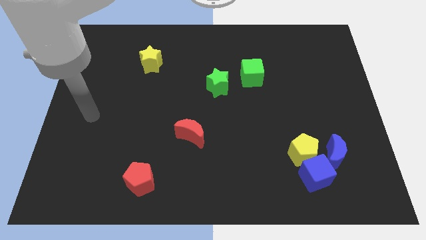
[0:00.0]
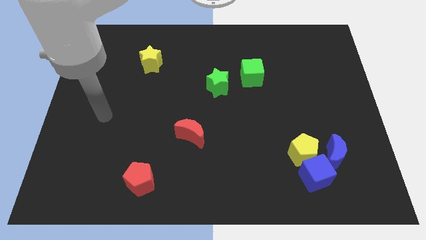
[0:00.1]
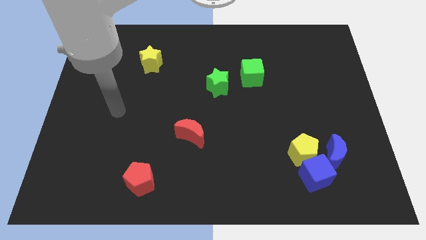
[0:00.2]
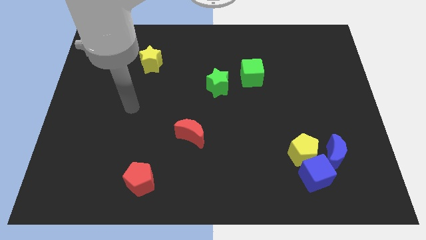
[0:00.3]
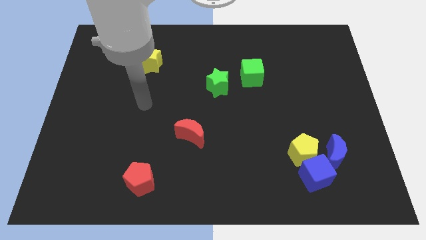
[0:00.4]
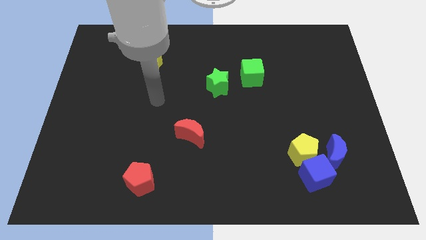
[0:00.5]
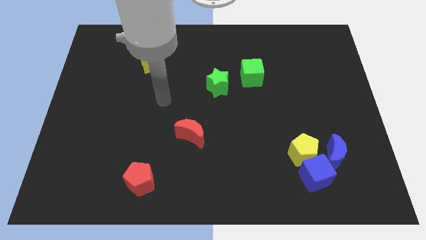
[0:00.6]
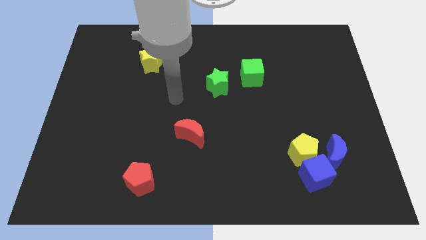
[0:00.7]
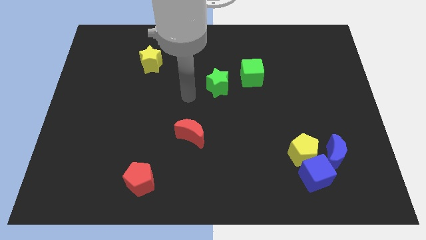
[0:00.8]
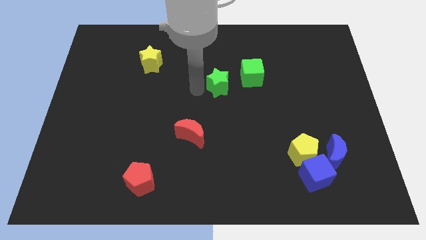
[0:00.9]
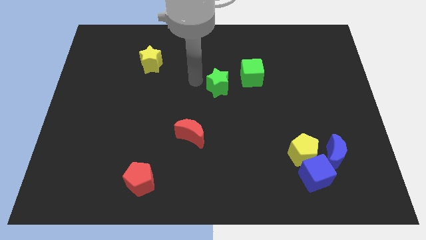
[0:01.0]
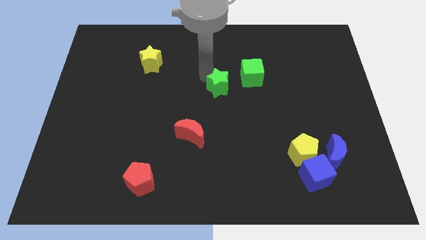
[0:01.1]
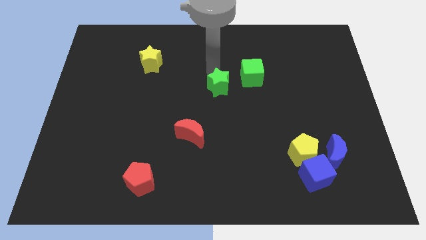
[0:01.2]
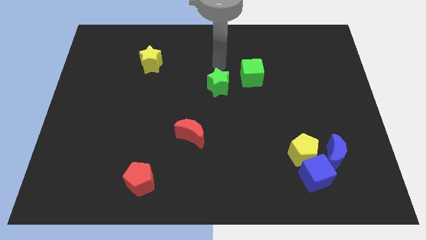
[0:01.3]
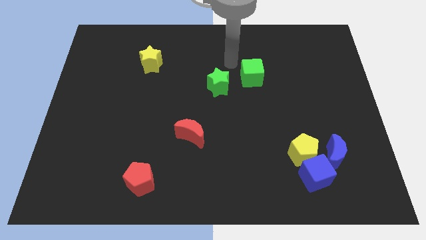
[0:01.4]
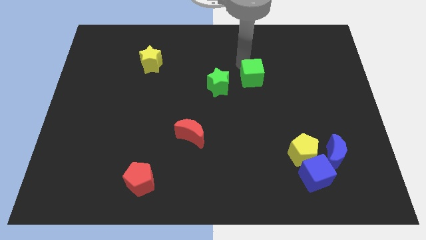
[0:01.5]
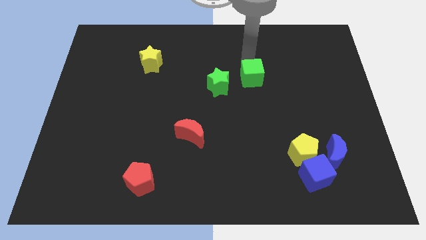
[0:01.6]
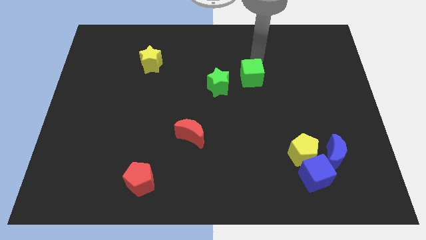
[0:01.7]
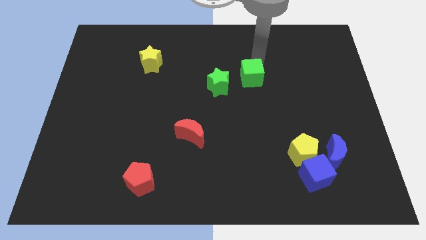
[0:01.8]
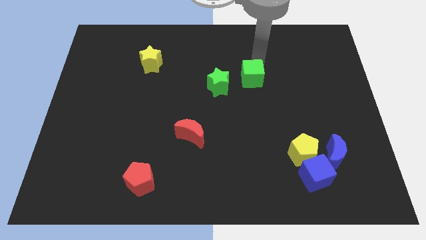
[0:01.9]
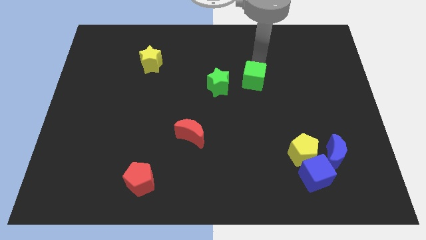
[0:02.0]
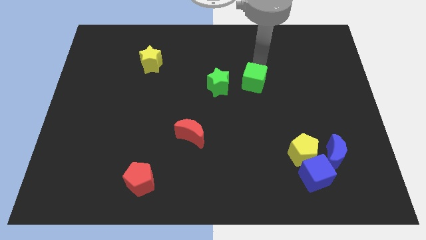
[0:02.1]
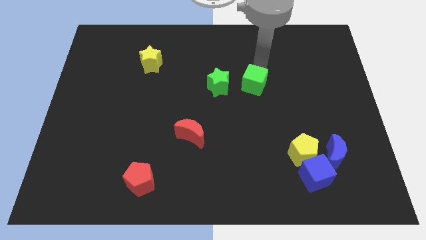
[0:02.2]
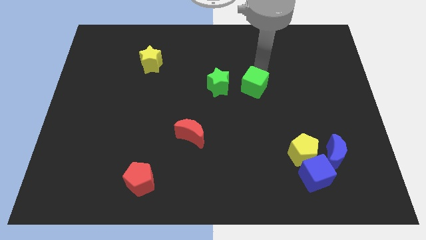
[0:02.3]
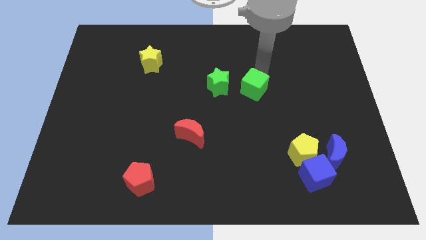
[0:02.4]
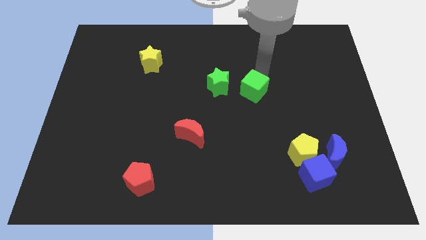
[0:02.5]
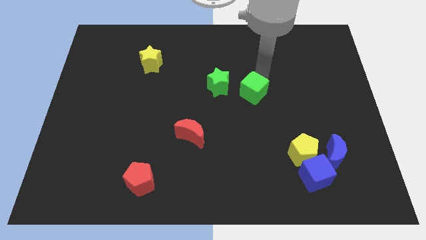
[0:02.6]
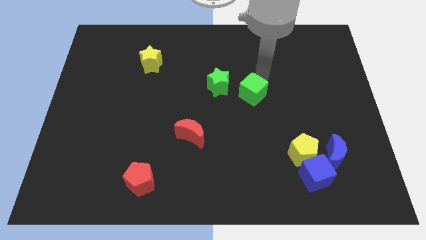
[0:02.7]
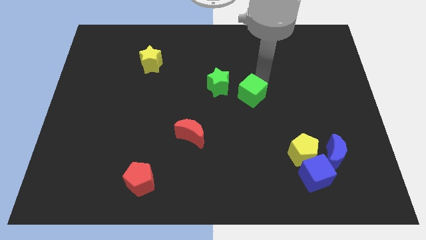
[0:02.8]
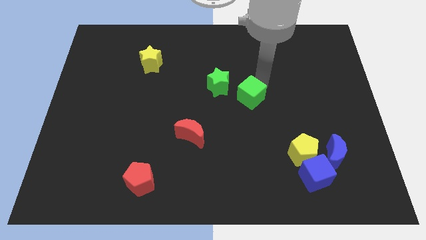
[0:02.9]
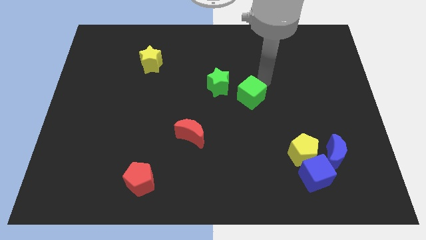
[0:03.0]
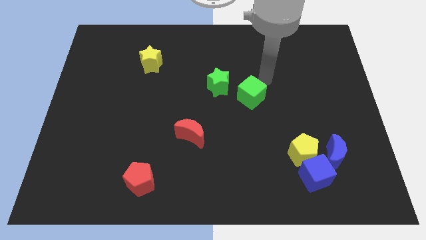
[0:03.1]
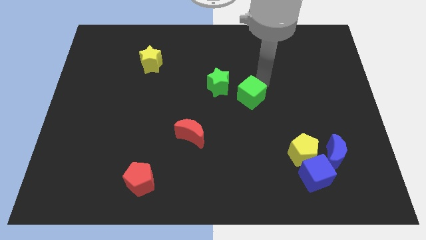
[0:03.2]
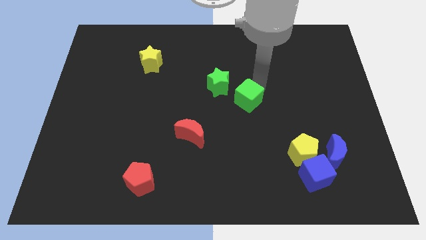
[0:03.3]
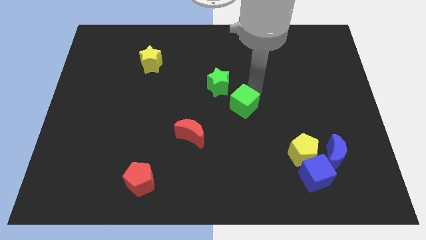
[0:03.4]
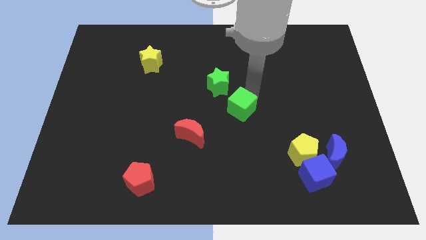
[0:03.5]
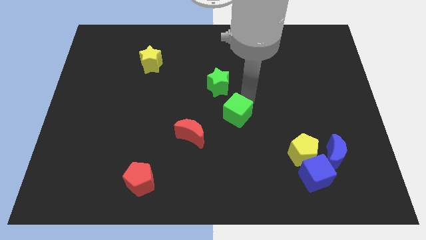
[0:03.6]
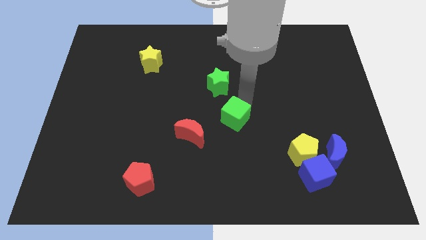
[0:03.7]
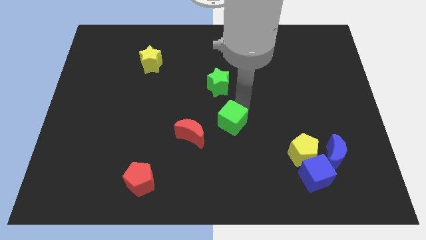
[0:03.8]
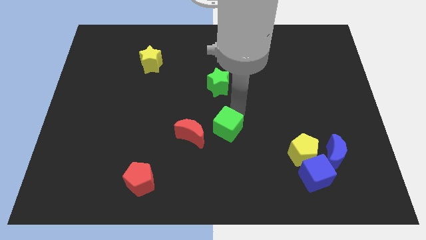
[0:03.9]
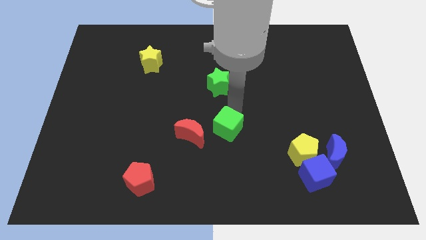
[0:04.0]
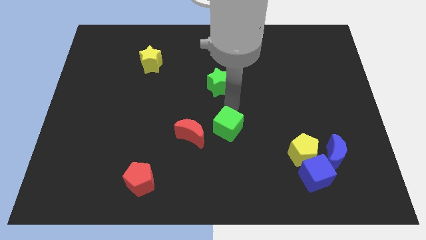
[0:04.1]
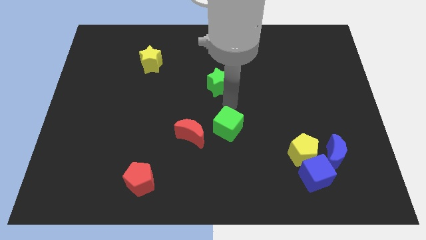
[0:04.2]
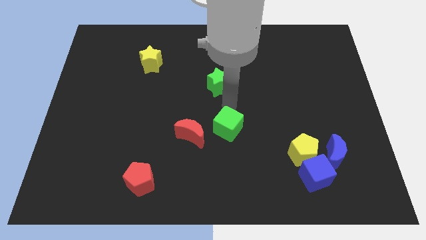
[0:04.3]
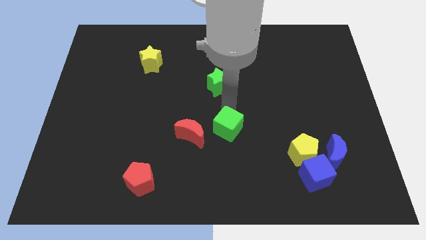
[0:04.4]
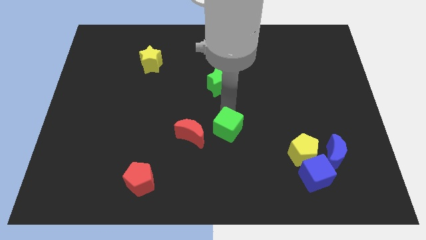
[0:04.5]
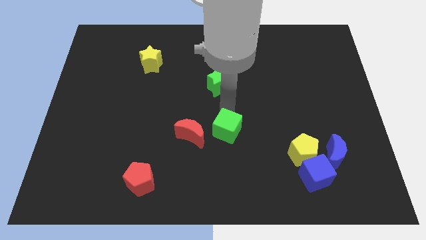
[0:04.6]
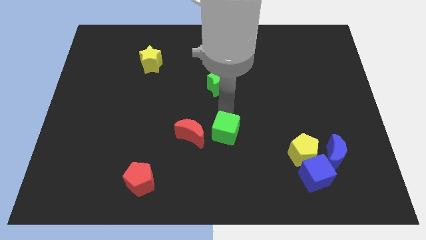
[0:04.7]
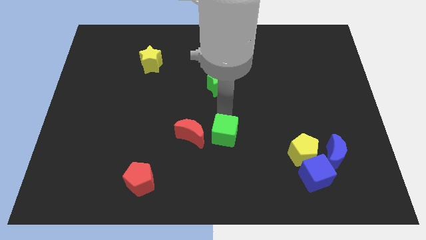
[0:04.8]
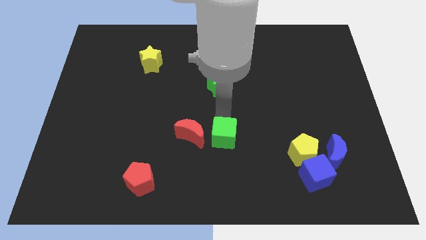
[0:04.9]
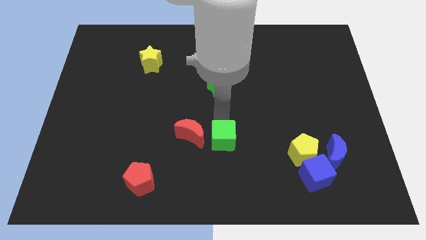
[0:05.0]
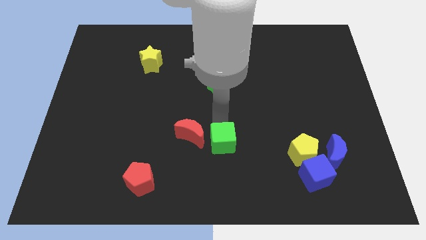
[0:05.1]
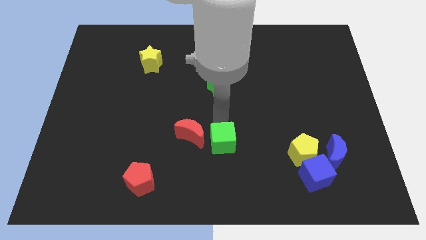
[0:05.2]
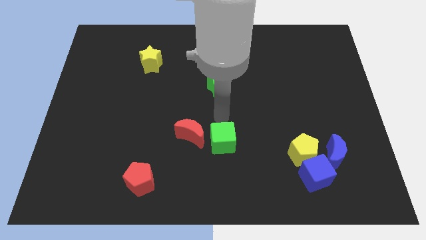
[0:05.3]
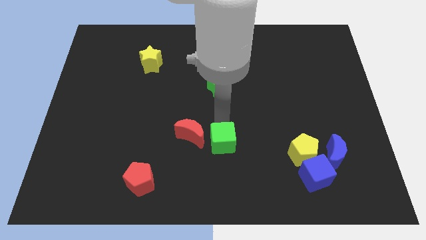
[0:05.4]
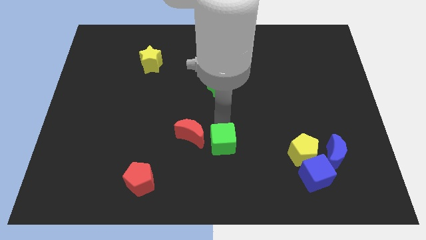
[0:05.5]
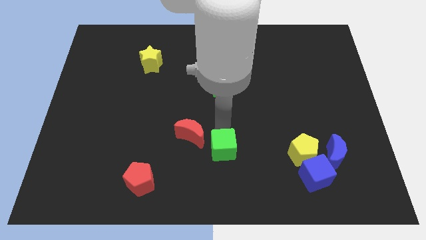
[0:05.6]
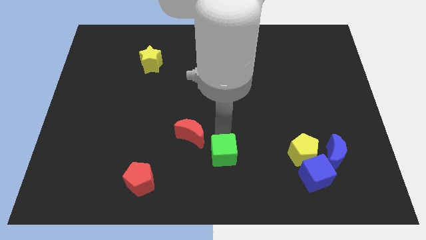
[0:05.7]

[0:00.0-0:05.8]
slide the green cube to the bottom

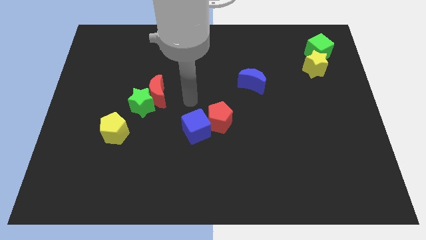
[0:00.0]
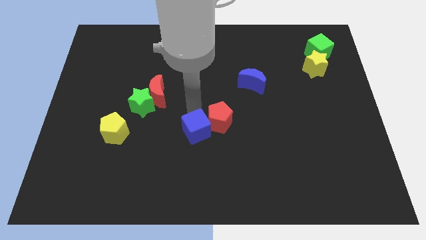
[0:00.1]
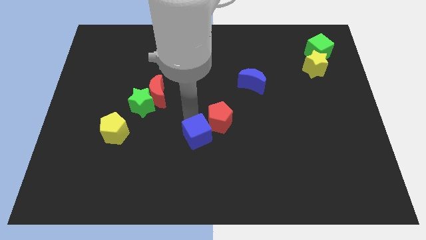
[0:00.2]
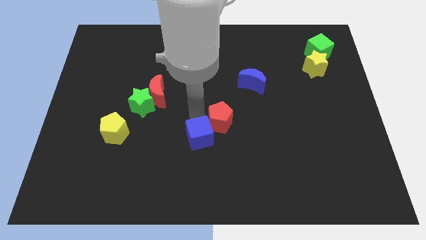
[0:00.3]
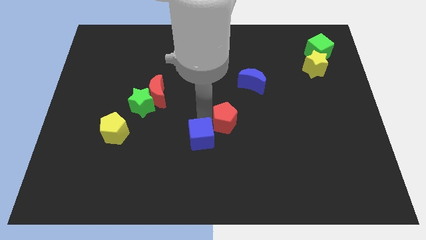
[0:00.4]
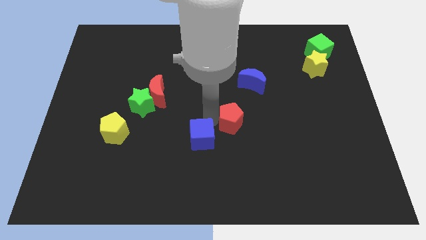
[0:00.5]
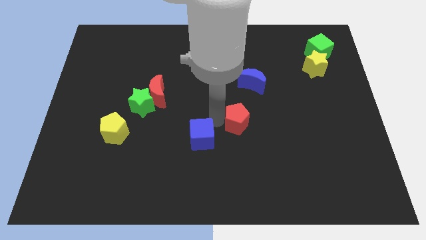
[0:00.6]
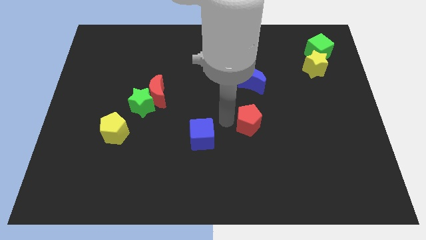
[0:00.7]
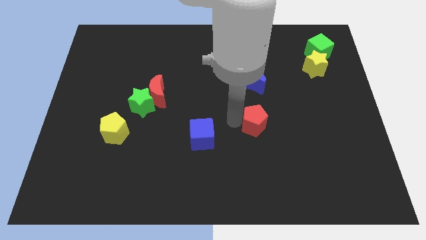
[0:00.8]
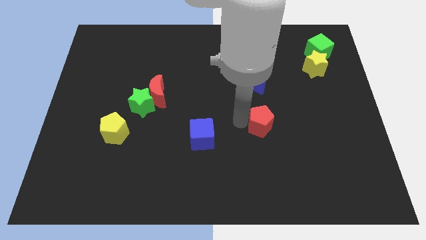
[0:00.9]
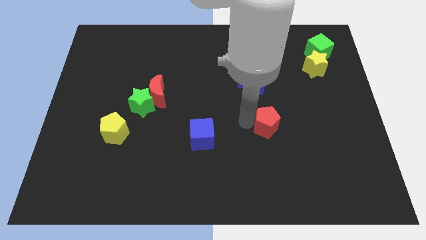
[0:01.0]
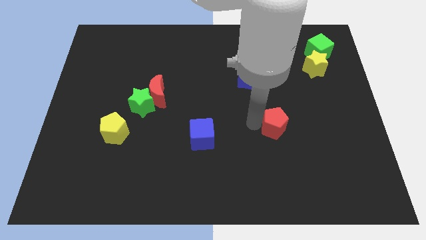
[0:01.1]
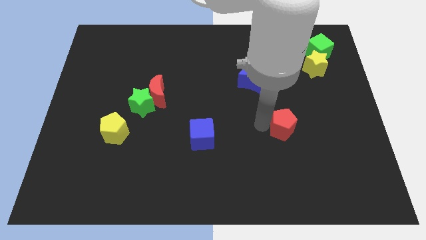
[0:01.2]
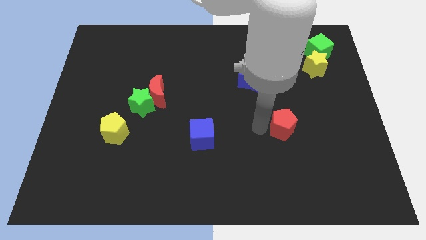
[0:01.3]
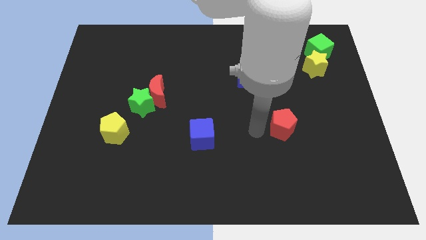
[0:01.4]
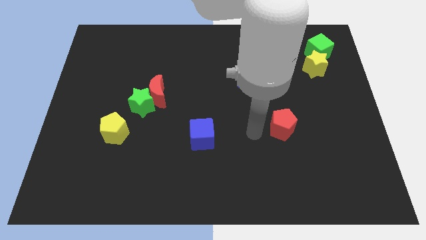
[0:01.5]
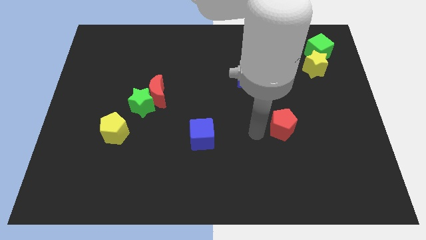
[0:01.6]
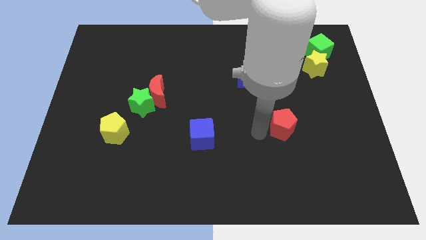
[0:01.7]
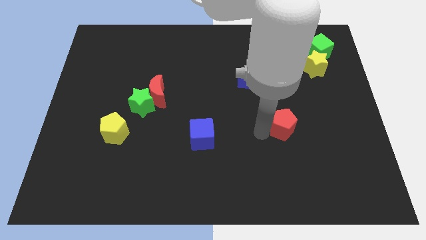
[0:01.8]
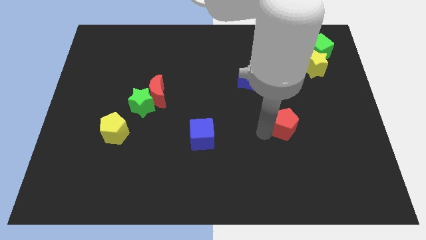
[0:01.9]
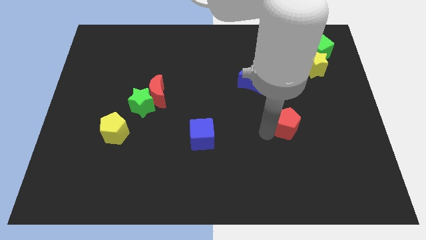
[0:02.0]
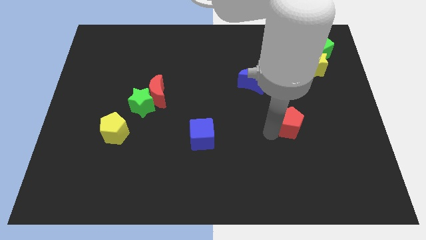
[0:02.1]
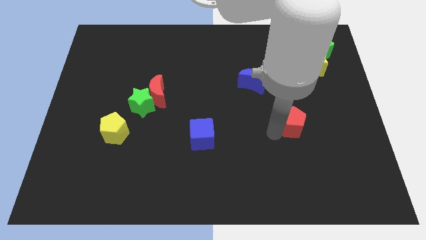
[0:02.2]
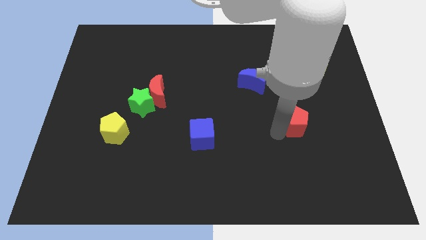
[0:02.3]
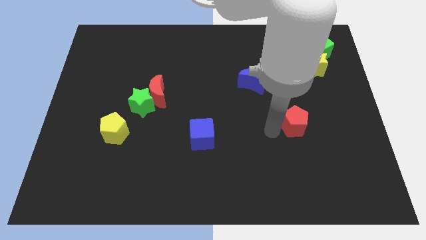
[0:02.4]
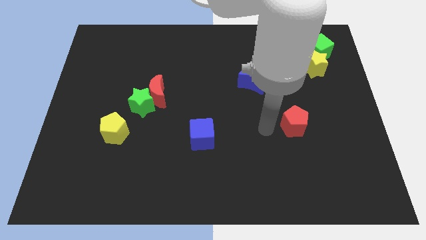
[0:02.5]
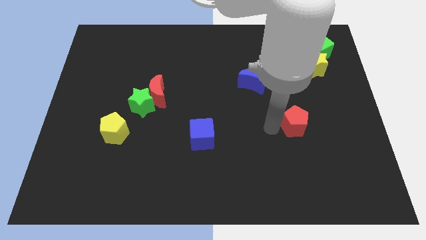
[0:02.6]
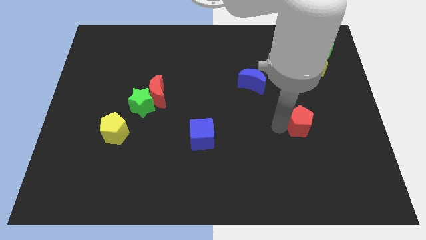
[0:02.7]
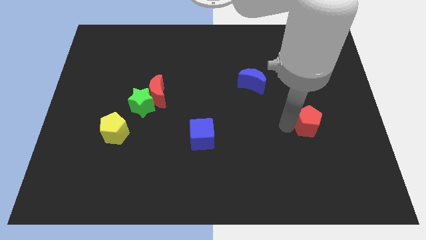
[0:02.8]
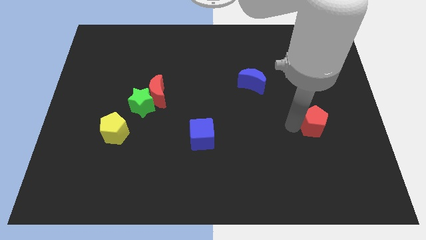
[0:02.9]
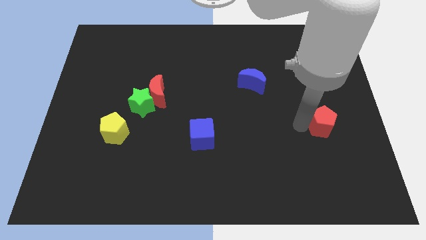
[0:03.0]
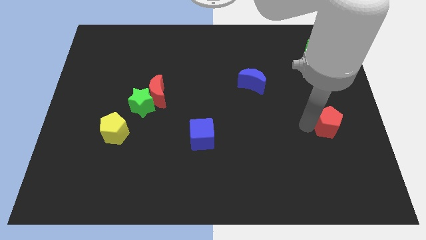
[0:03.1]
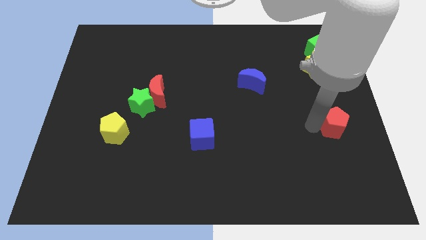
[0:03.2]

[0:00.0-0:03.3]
move the red pentagon to the right side
